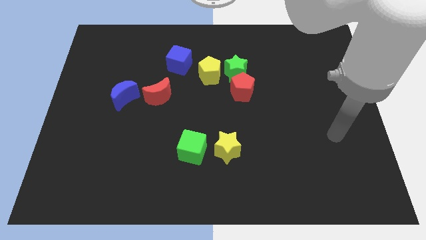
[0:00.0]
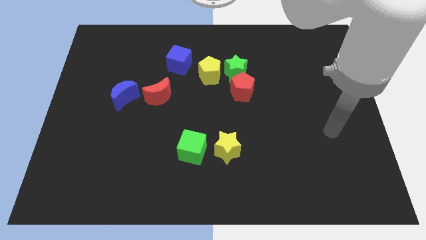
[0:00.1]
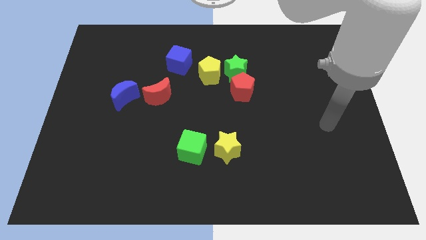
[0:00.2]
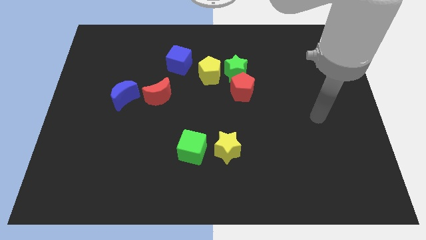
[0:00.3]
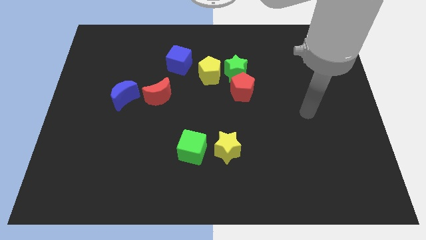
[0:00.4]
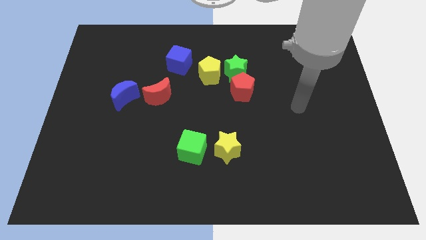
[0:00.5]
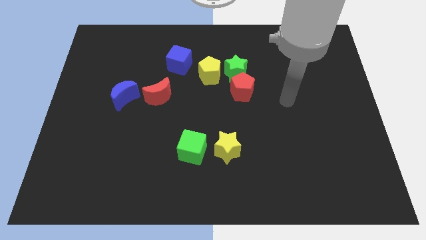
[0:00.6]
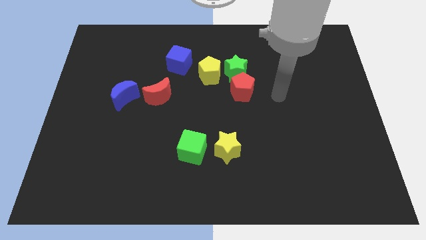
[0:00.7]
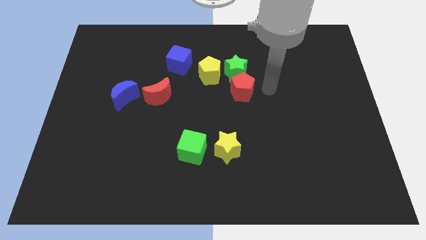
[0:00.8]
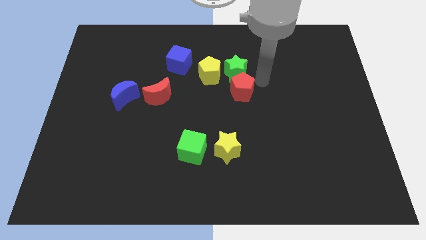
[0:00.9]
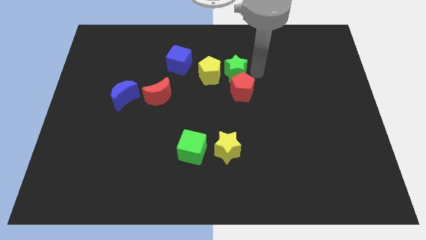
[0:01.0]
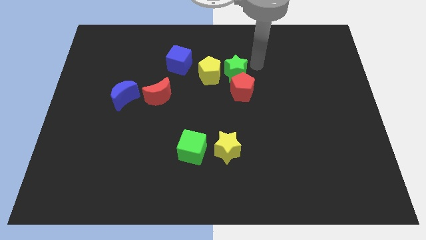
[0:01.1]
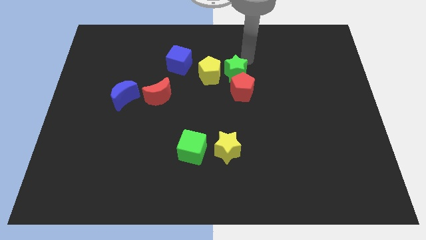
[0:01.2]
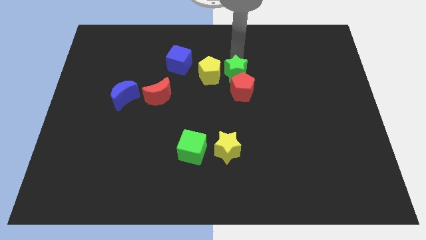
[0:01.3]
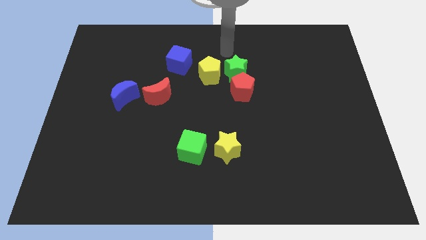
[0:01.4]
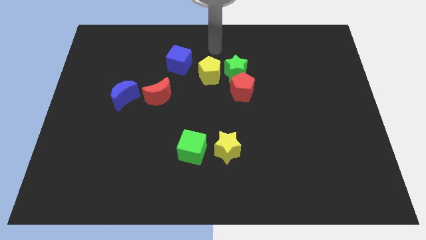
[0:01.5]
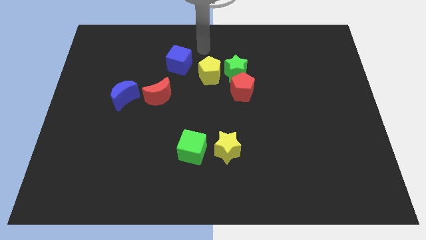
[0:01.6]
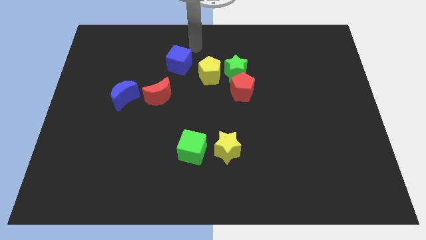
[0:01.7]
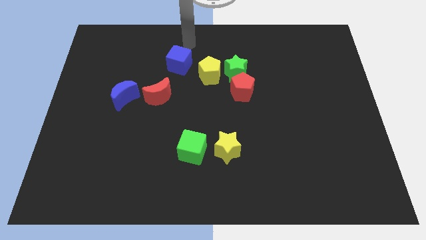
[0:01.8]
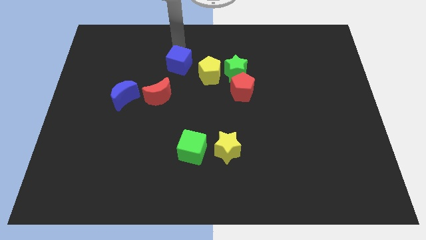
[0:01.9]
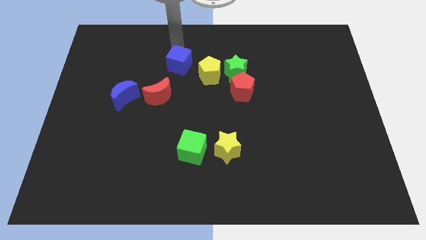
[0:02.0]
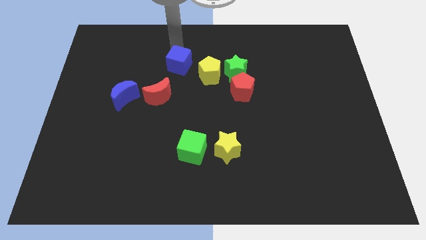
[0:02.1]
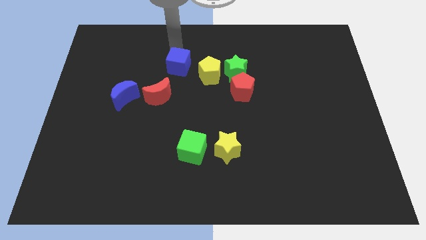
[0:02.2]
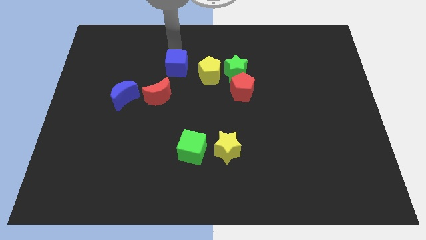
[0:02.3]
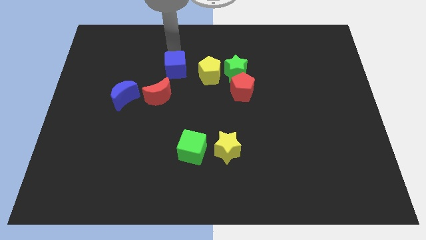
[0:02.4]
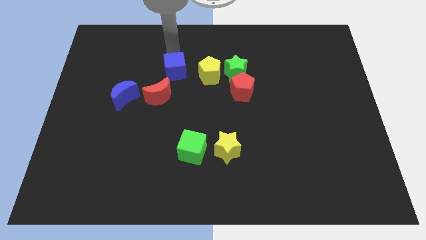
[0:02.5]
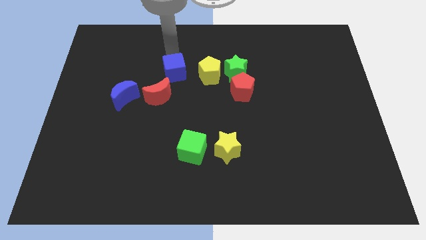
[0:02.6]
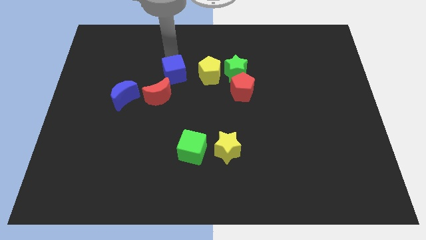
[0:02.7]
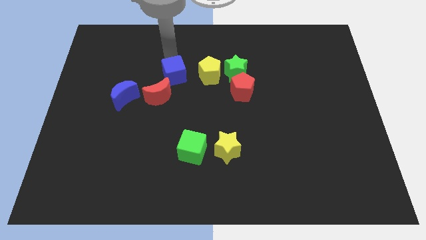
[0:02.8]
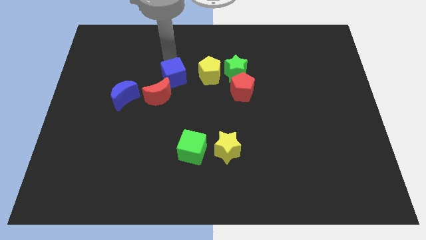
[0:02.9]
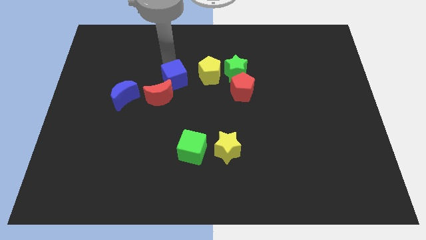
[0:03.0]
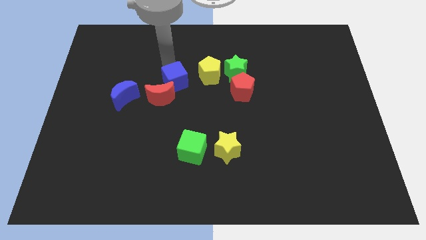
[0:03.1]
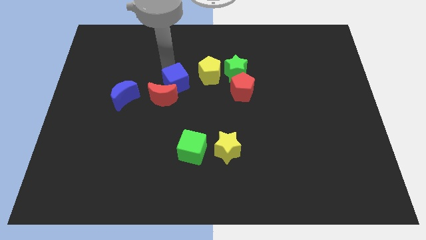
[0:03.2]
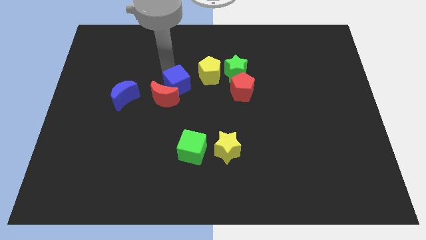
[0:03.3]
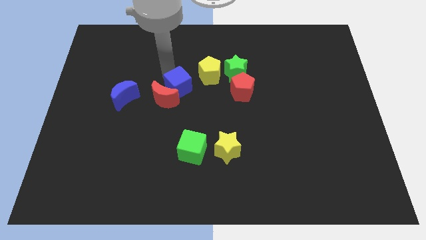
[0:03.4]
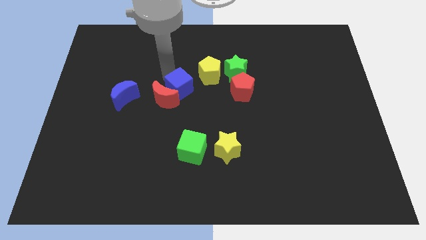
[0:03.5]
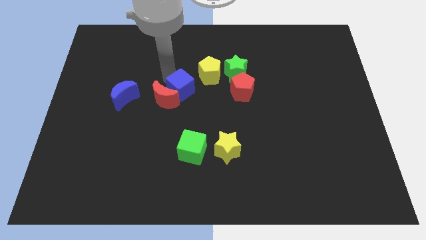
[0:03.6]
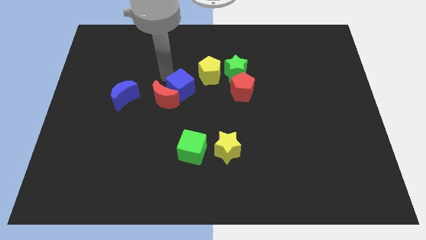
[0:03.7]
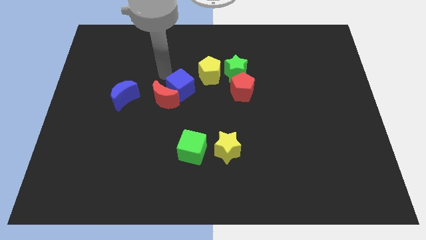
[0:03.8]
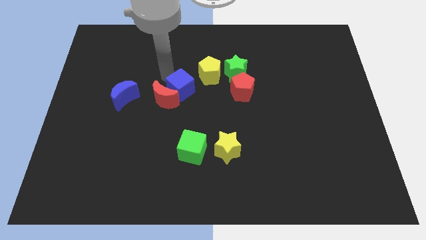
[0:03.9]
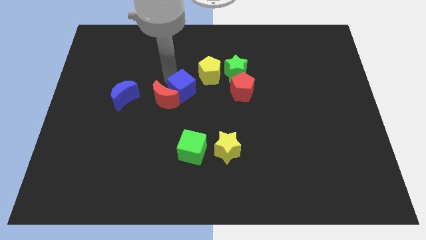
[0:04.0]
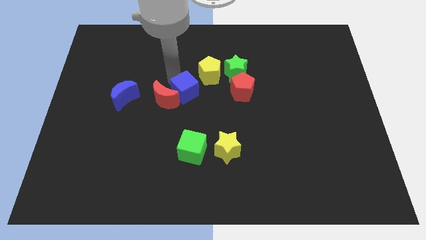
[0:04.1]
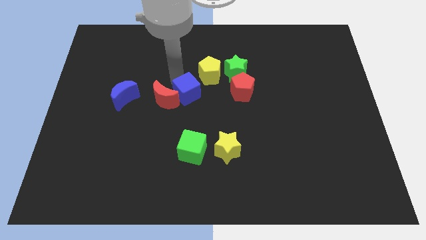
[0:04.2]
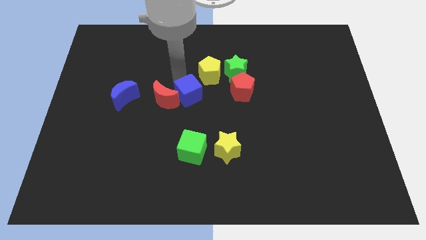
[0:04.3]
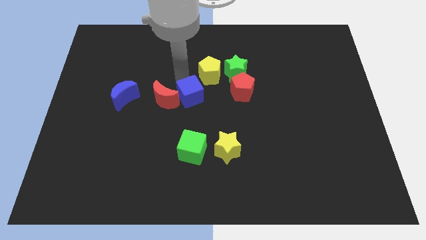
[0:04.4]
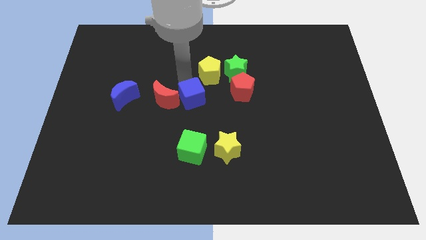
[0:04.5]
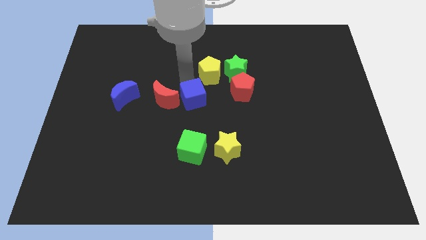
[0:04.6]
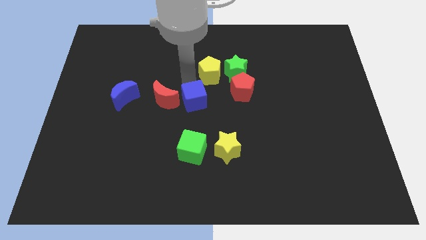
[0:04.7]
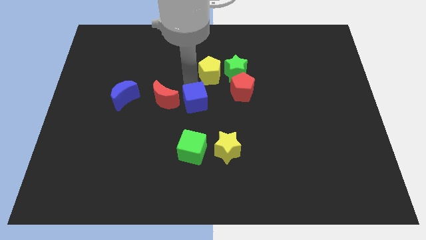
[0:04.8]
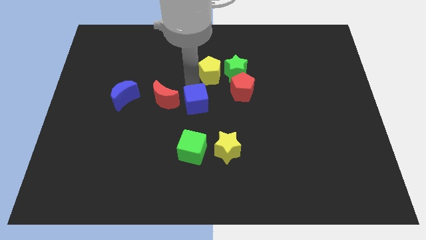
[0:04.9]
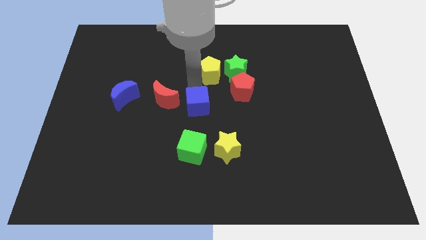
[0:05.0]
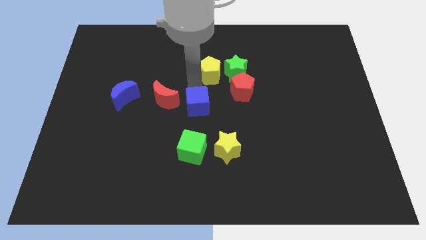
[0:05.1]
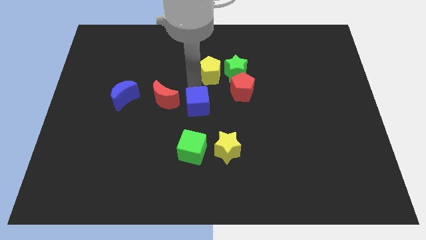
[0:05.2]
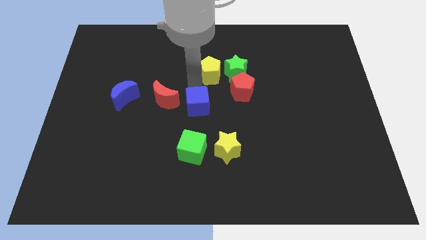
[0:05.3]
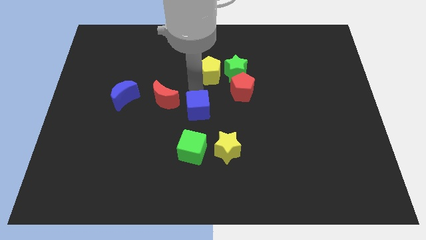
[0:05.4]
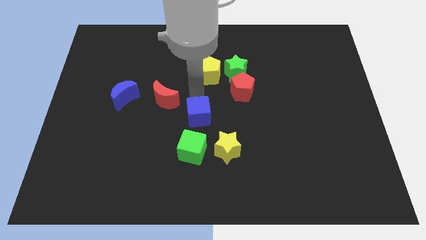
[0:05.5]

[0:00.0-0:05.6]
push the blue cube to the top left side of the yellow star

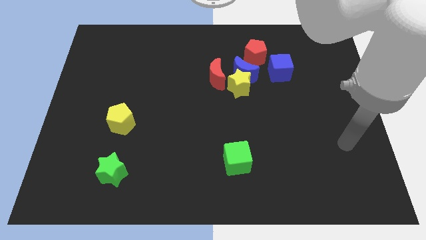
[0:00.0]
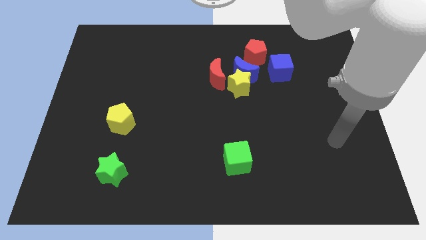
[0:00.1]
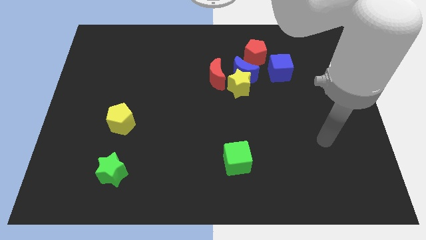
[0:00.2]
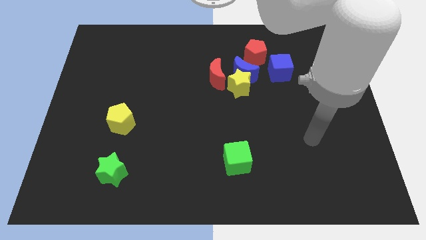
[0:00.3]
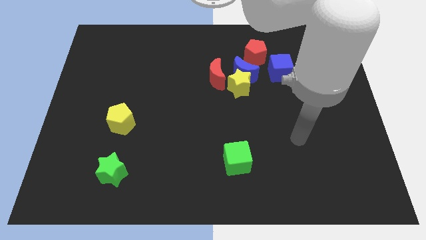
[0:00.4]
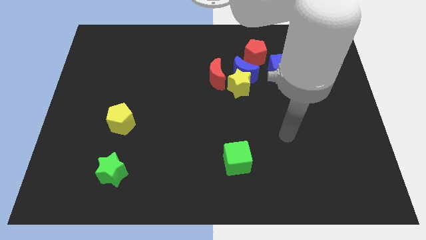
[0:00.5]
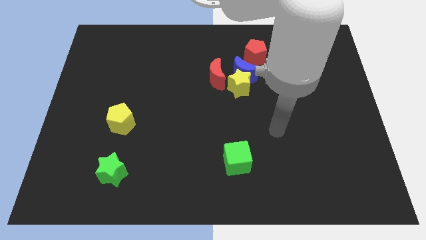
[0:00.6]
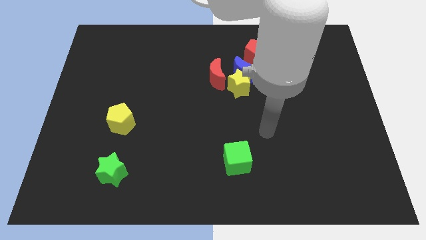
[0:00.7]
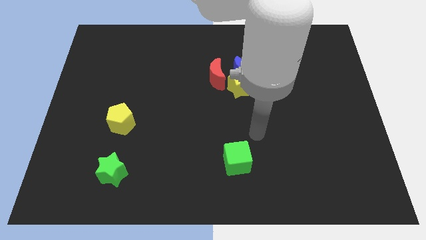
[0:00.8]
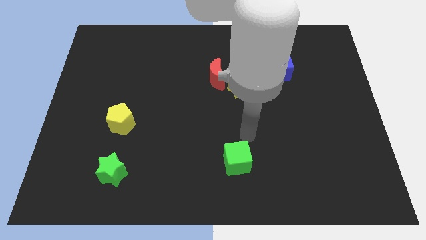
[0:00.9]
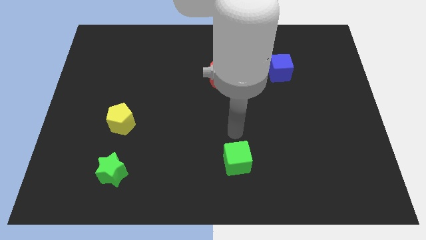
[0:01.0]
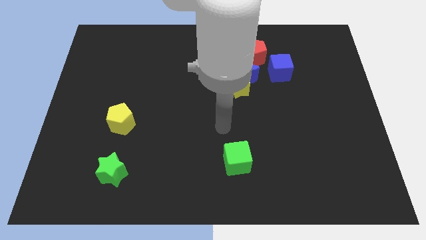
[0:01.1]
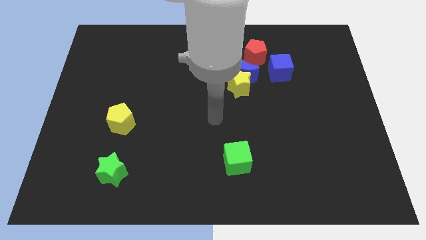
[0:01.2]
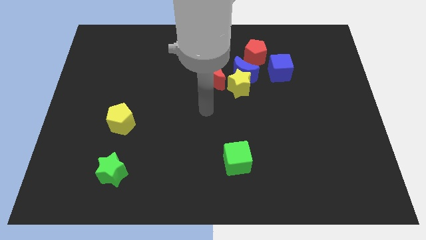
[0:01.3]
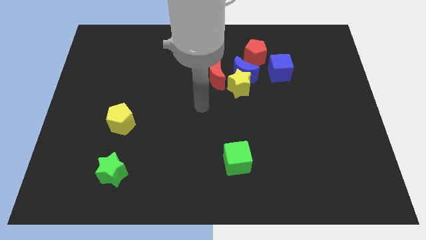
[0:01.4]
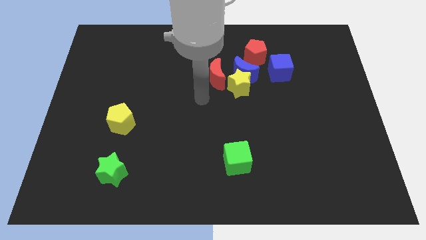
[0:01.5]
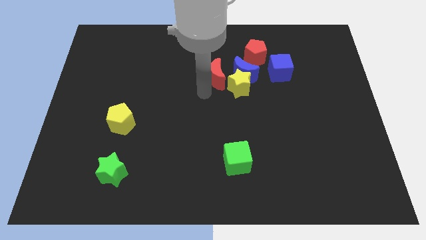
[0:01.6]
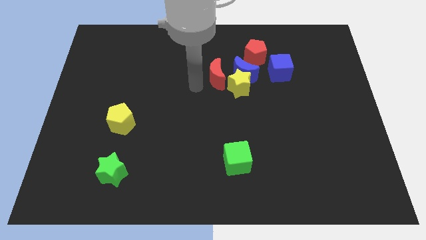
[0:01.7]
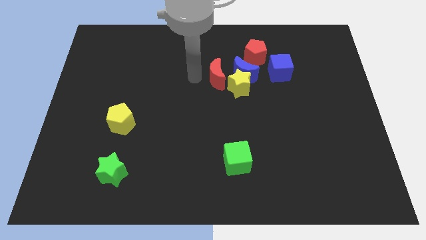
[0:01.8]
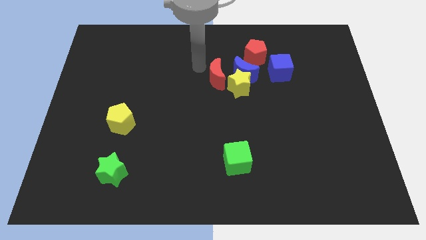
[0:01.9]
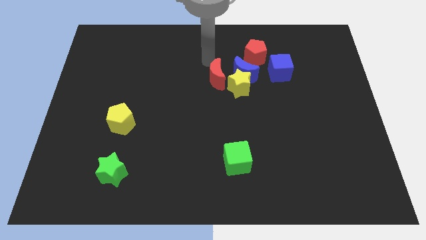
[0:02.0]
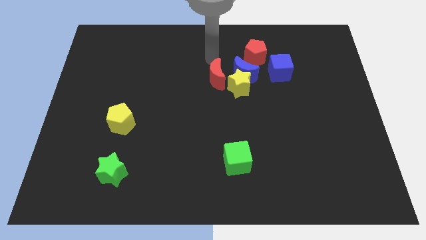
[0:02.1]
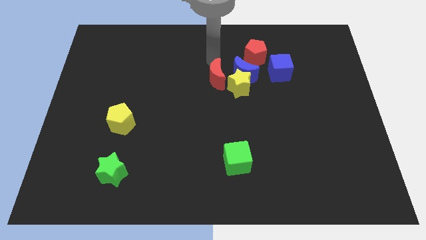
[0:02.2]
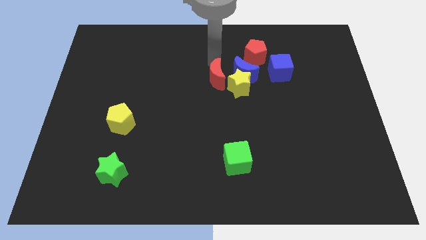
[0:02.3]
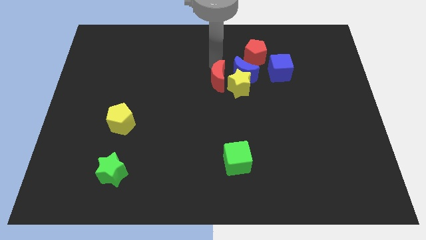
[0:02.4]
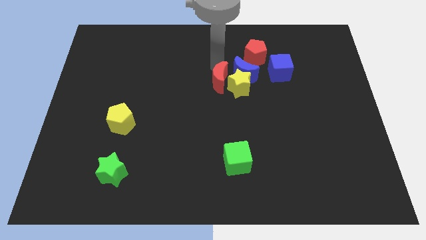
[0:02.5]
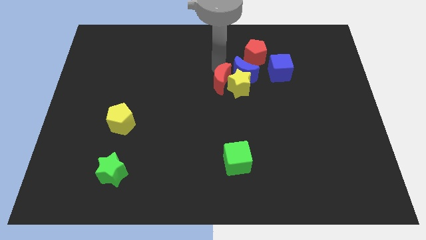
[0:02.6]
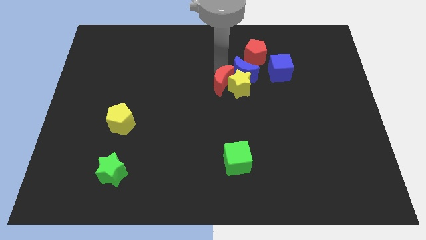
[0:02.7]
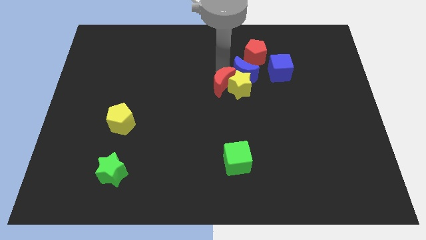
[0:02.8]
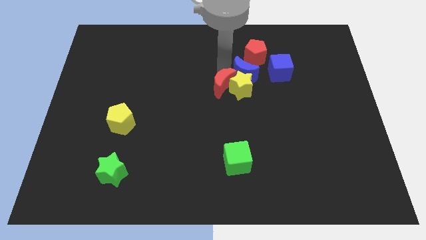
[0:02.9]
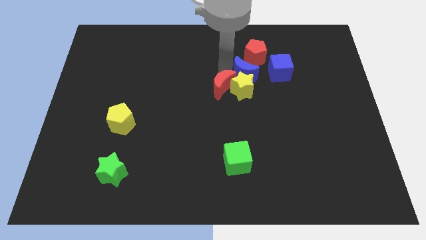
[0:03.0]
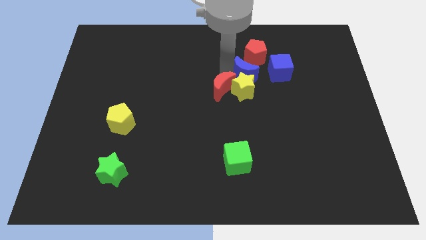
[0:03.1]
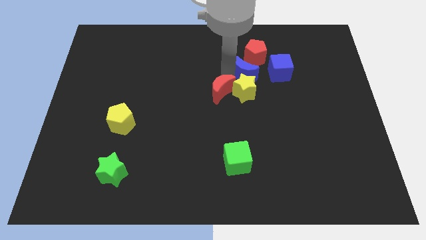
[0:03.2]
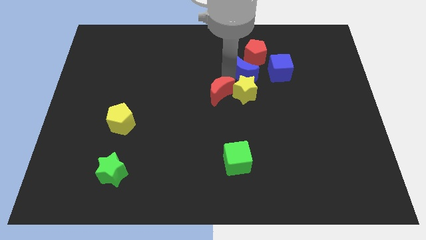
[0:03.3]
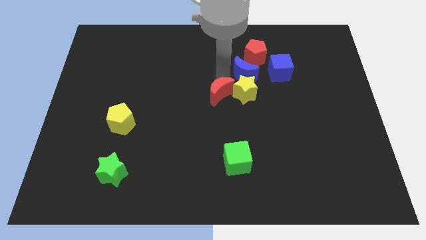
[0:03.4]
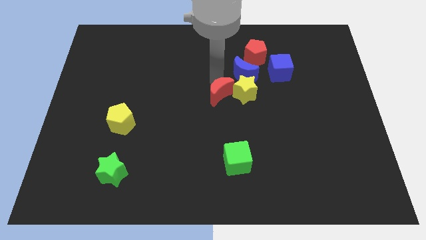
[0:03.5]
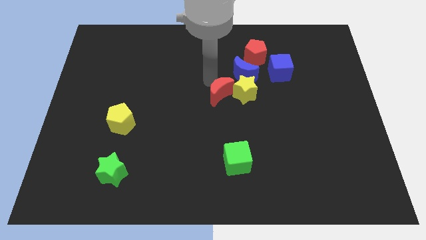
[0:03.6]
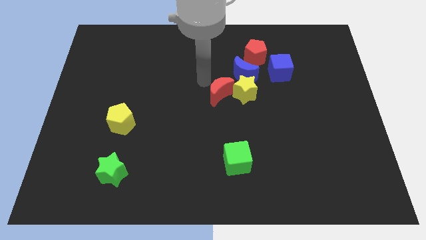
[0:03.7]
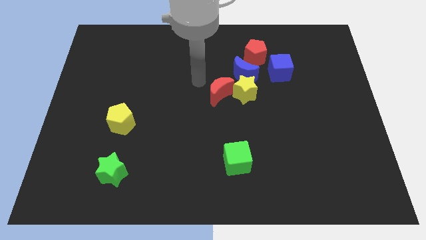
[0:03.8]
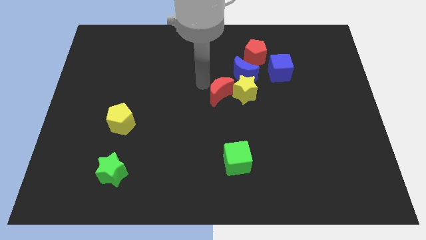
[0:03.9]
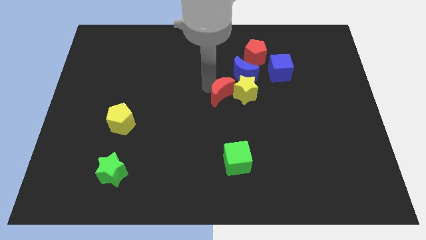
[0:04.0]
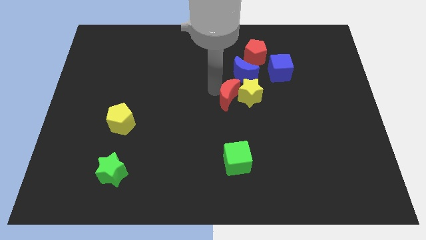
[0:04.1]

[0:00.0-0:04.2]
slide the red moon to the bottom side of the blue moon
